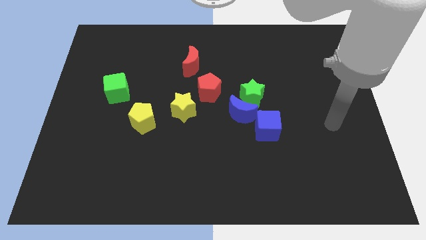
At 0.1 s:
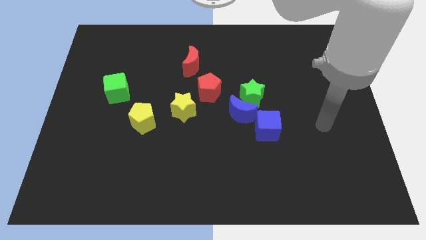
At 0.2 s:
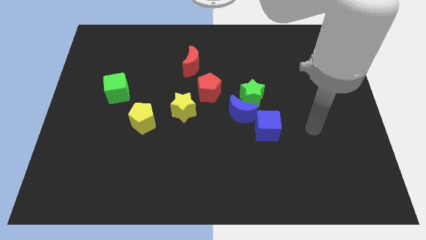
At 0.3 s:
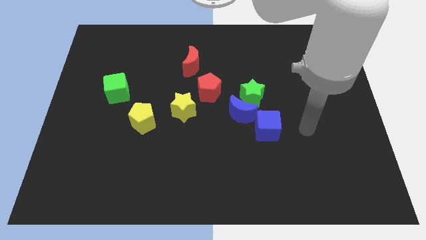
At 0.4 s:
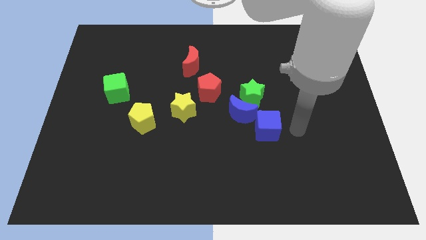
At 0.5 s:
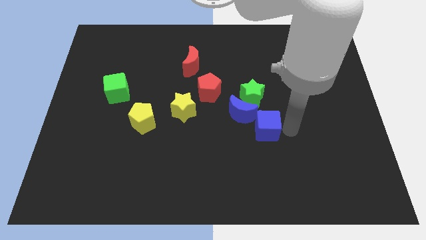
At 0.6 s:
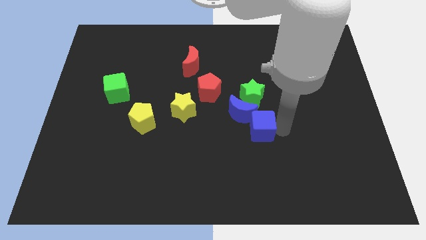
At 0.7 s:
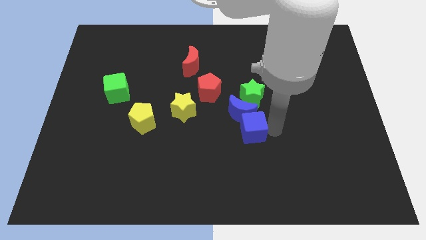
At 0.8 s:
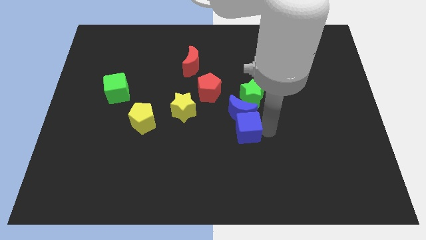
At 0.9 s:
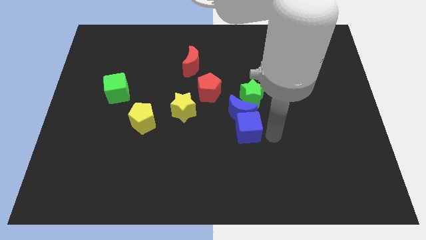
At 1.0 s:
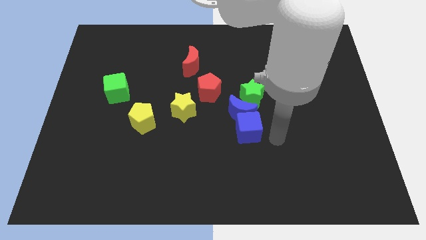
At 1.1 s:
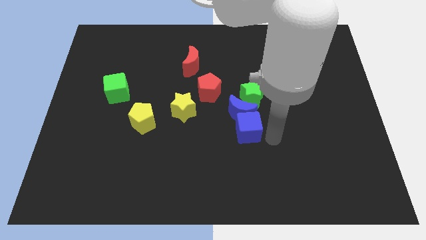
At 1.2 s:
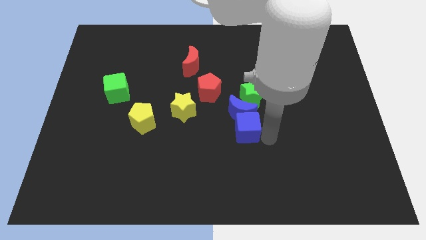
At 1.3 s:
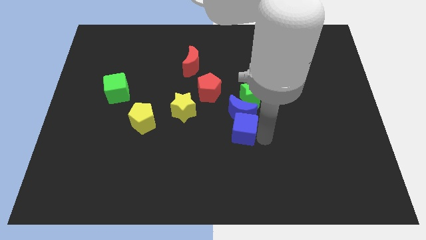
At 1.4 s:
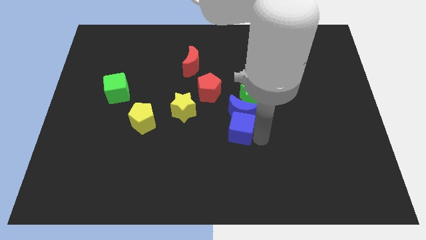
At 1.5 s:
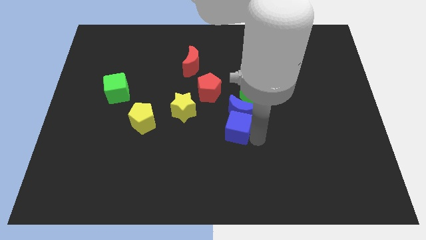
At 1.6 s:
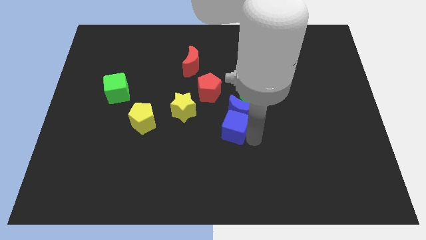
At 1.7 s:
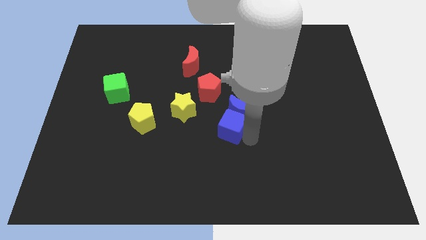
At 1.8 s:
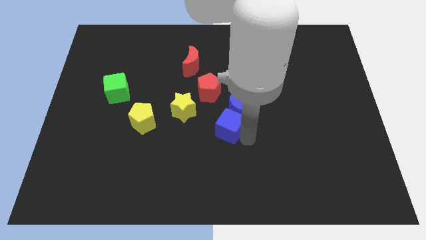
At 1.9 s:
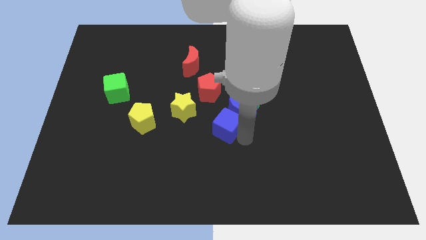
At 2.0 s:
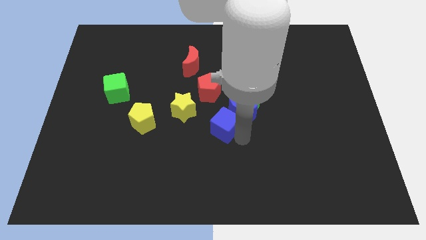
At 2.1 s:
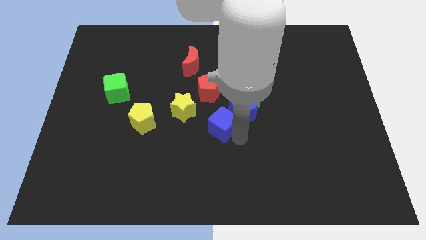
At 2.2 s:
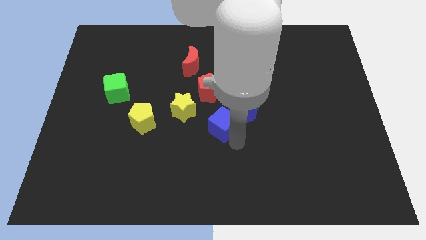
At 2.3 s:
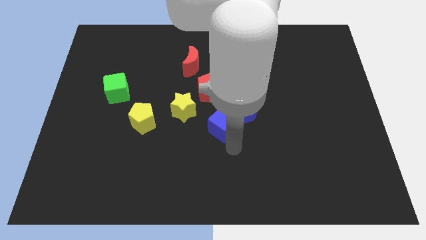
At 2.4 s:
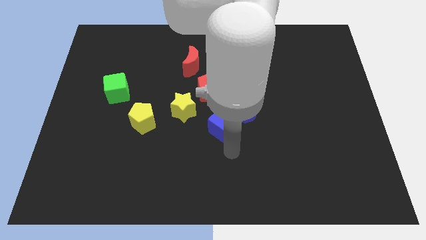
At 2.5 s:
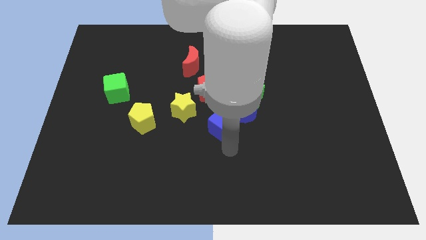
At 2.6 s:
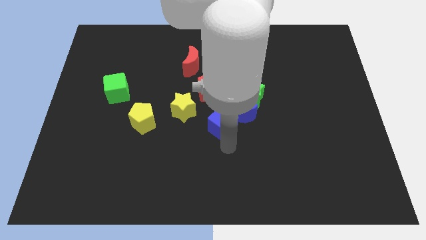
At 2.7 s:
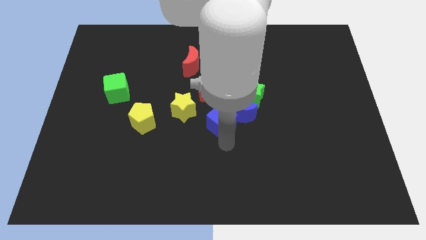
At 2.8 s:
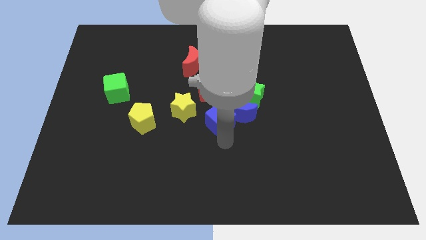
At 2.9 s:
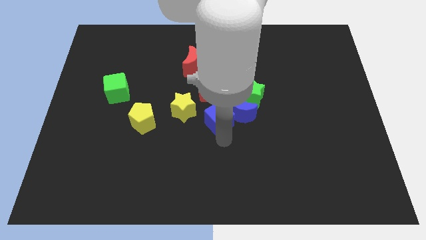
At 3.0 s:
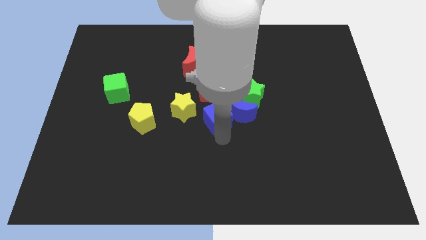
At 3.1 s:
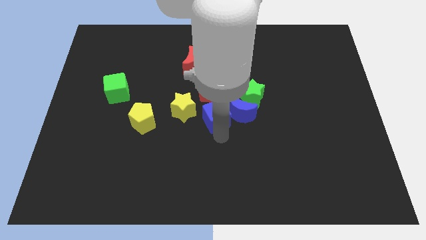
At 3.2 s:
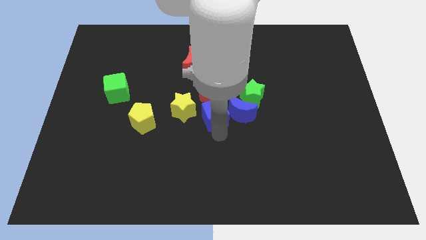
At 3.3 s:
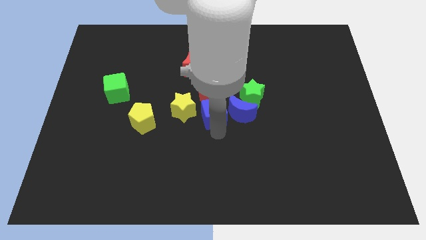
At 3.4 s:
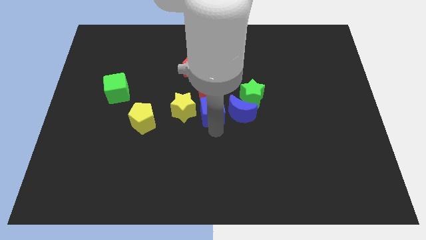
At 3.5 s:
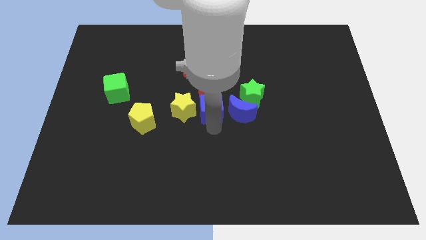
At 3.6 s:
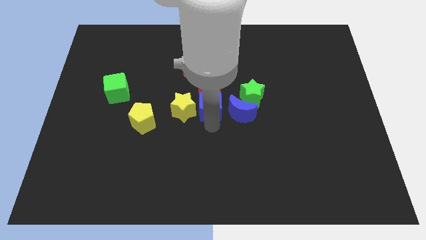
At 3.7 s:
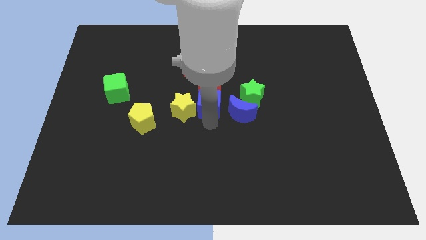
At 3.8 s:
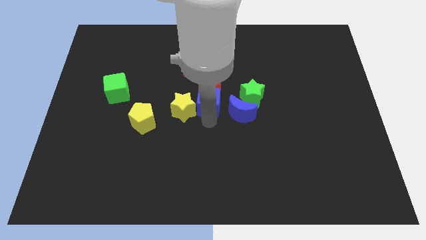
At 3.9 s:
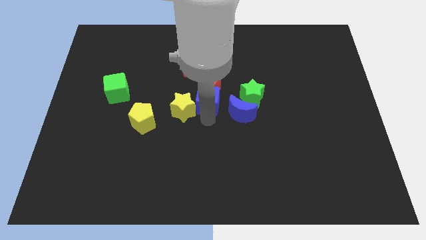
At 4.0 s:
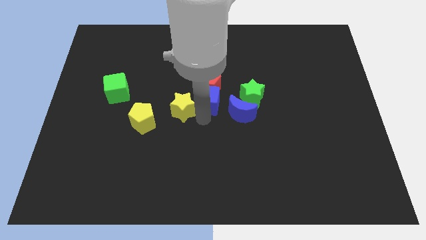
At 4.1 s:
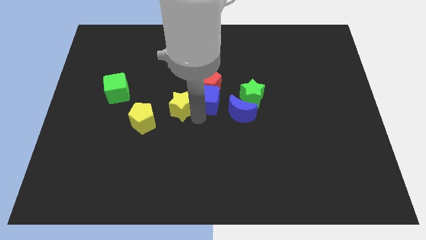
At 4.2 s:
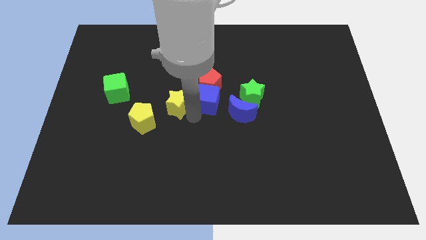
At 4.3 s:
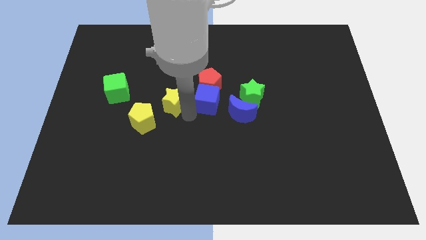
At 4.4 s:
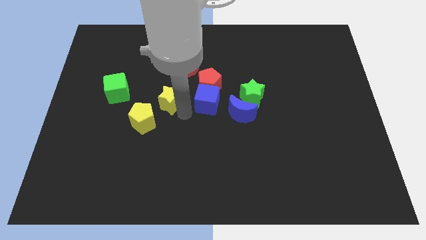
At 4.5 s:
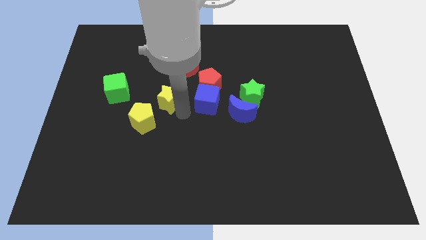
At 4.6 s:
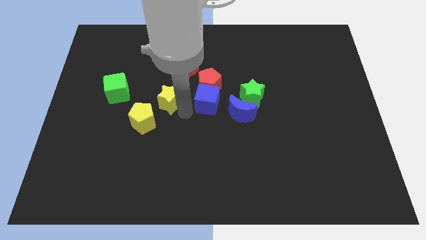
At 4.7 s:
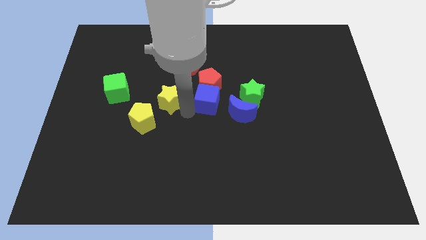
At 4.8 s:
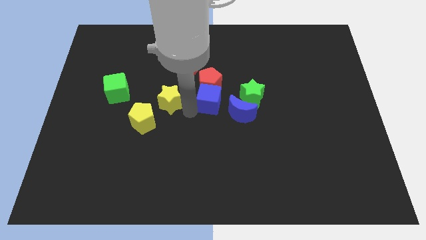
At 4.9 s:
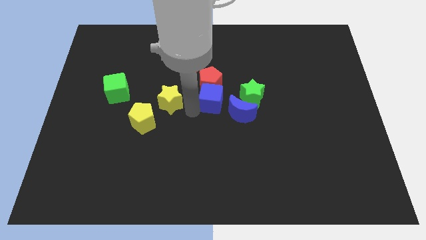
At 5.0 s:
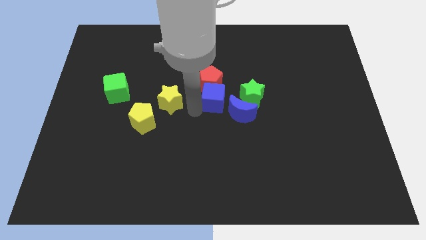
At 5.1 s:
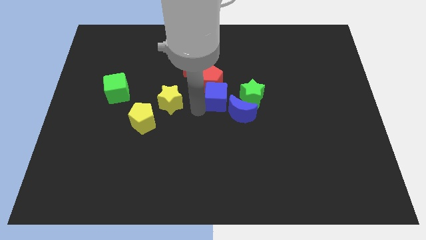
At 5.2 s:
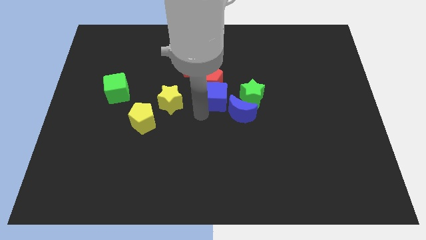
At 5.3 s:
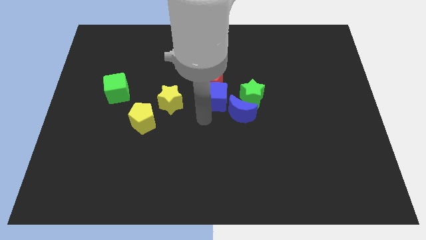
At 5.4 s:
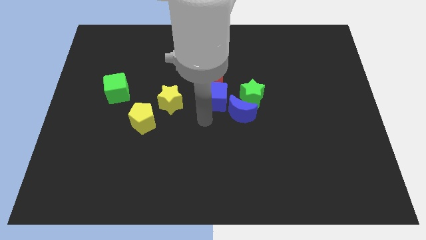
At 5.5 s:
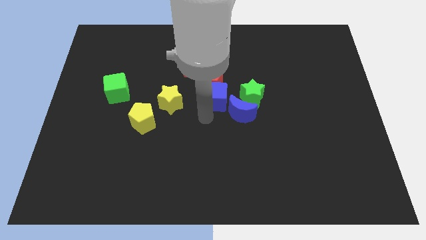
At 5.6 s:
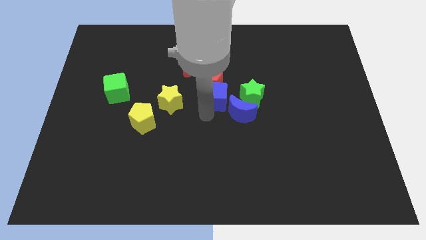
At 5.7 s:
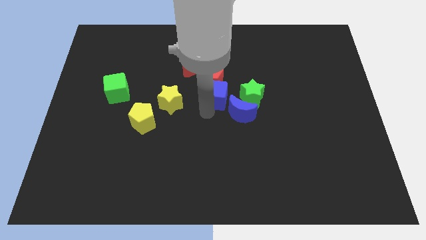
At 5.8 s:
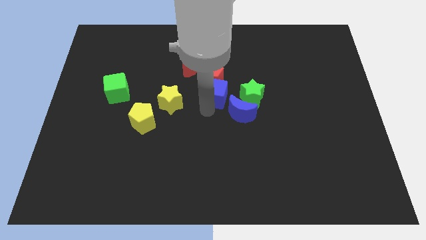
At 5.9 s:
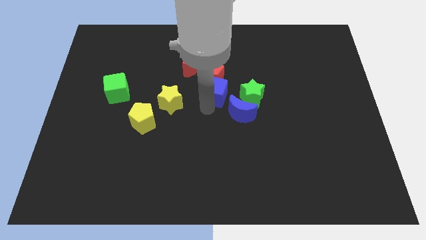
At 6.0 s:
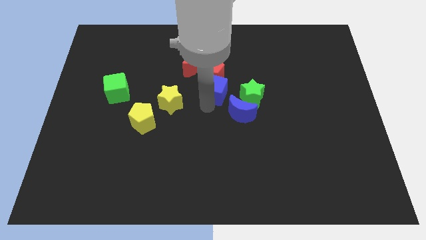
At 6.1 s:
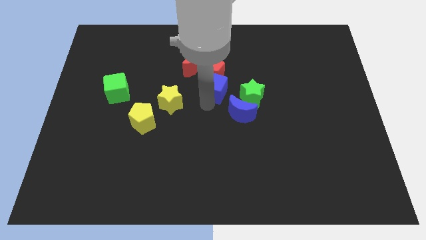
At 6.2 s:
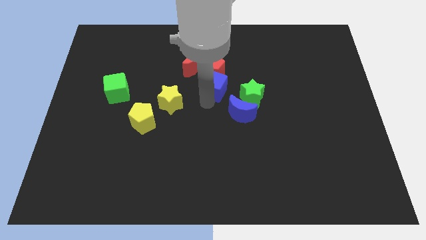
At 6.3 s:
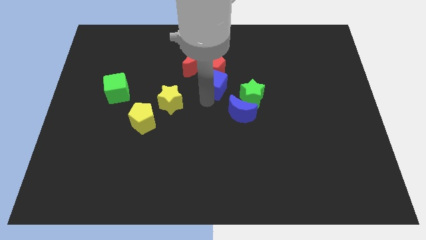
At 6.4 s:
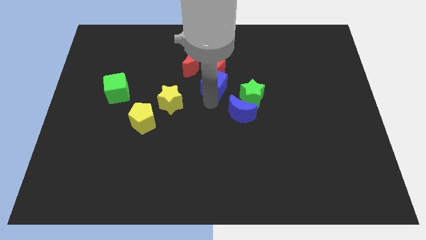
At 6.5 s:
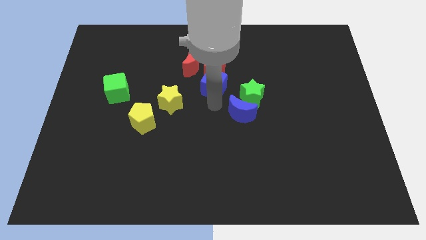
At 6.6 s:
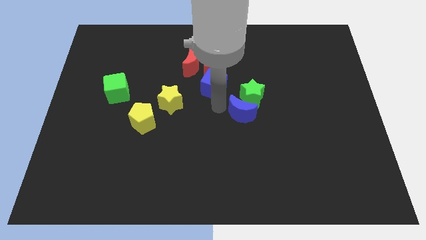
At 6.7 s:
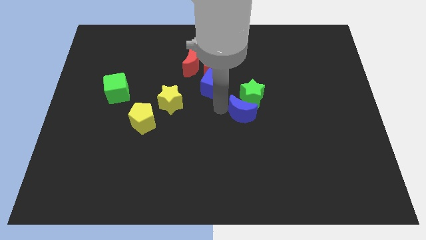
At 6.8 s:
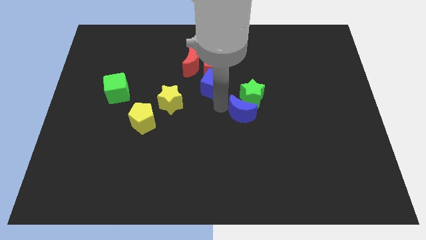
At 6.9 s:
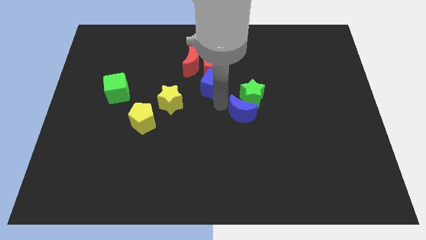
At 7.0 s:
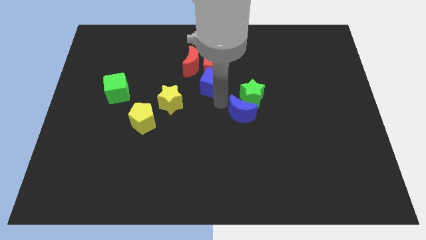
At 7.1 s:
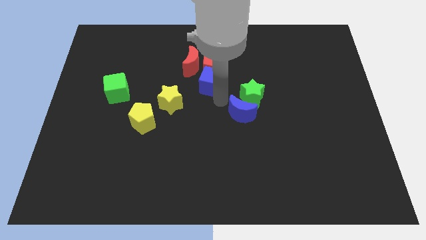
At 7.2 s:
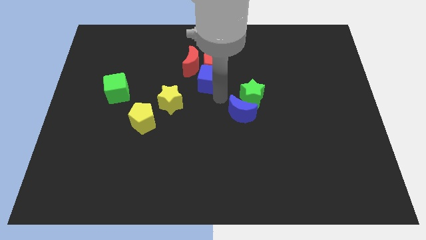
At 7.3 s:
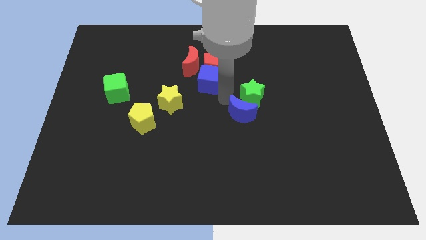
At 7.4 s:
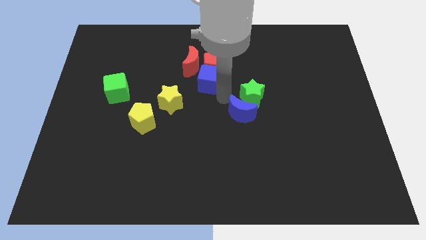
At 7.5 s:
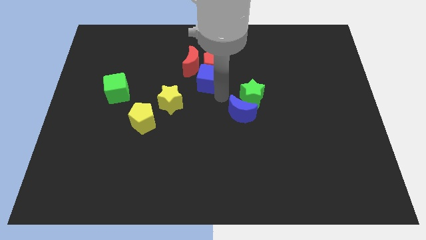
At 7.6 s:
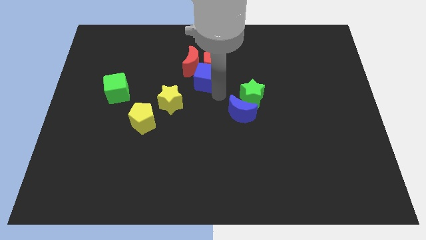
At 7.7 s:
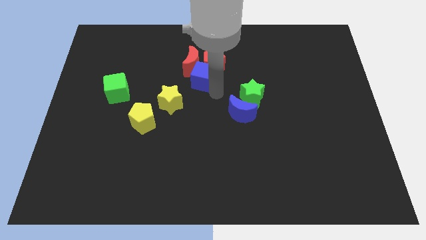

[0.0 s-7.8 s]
move the blue cube next to the red moon
